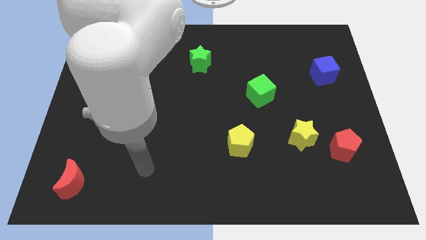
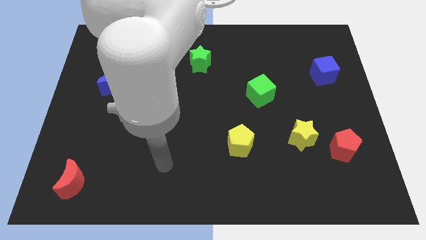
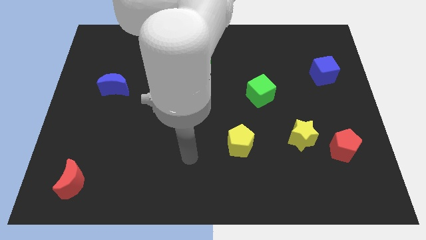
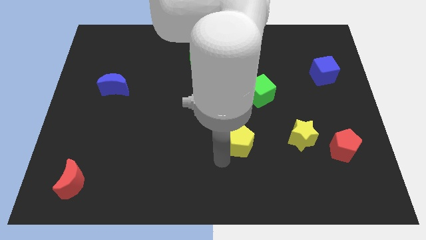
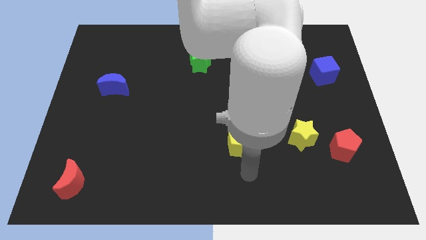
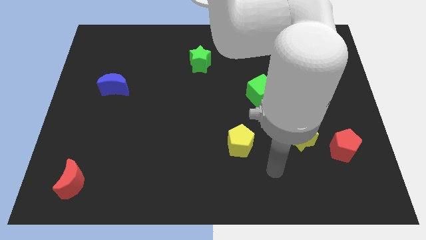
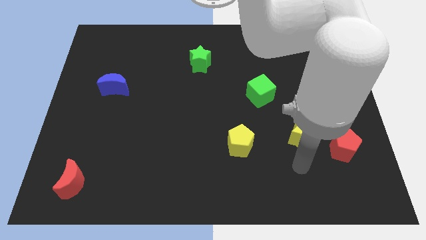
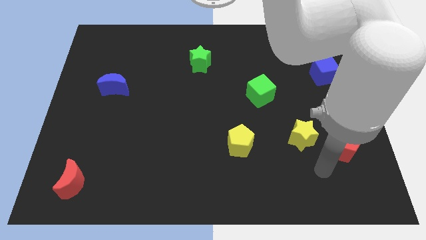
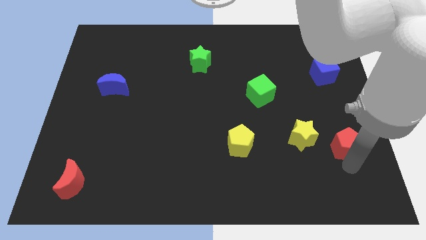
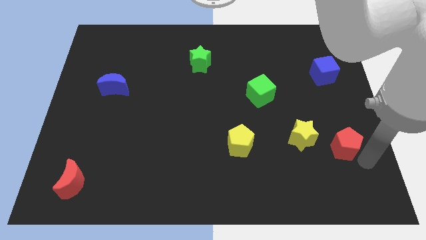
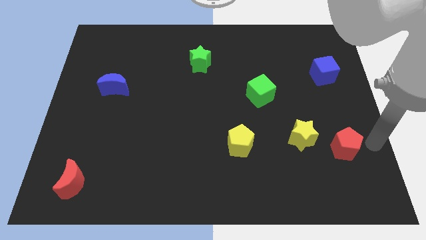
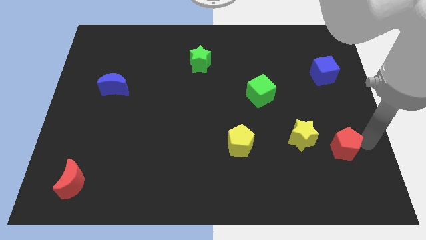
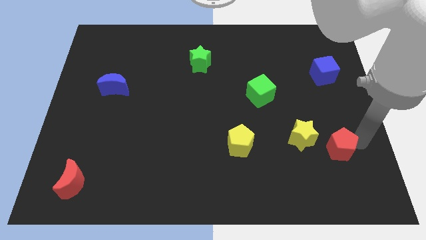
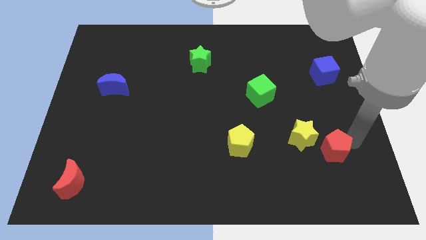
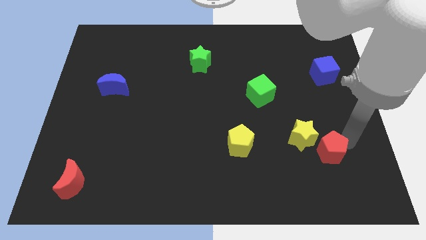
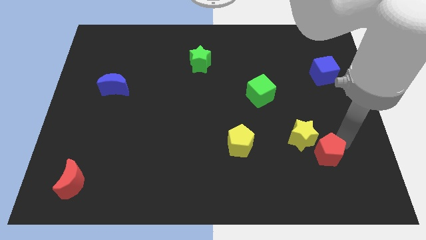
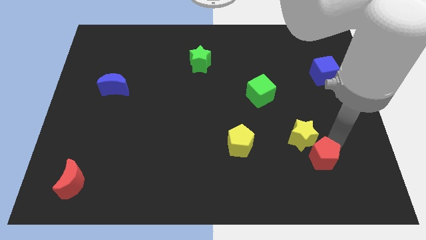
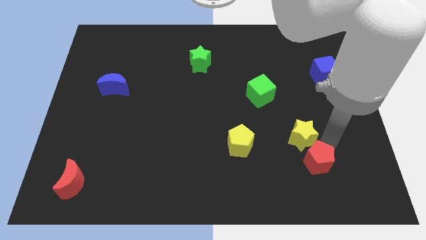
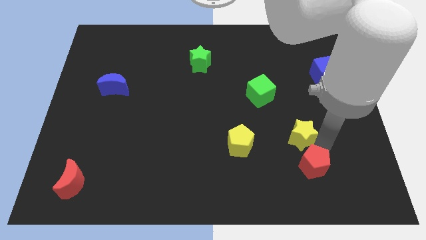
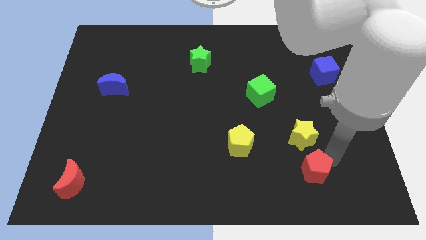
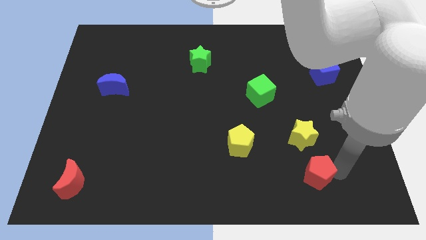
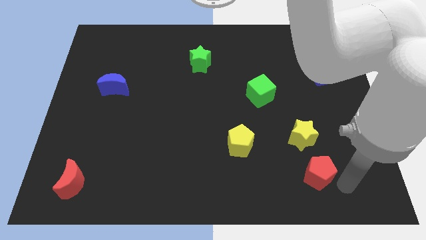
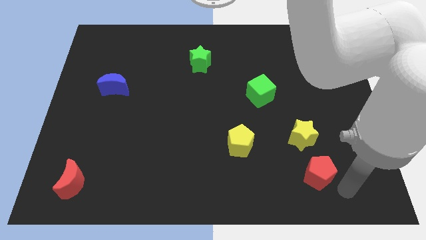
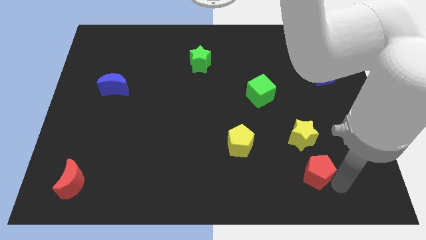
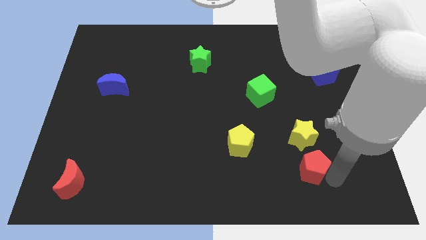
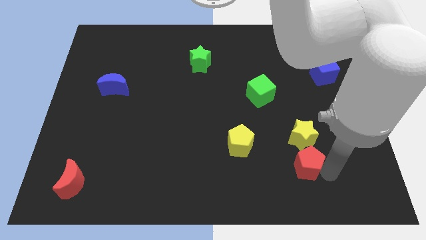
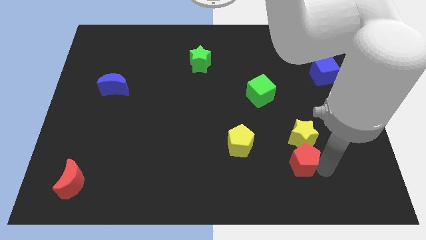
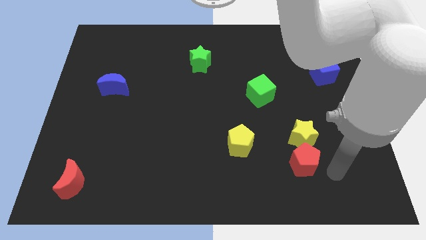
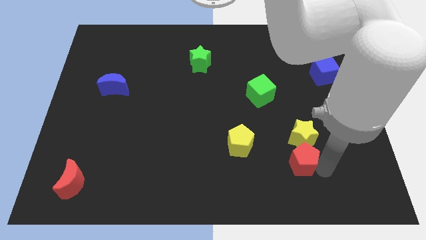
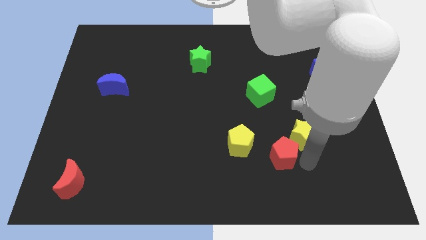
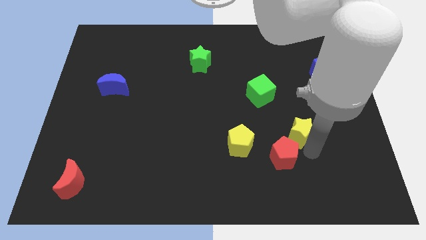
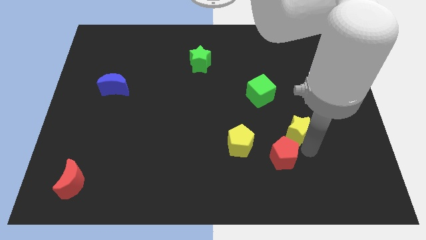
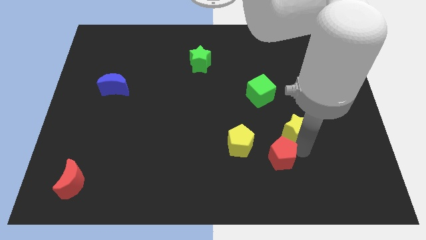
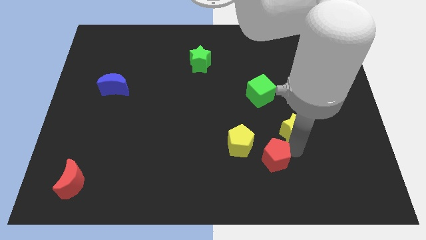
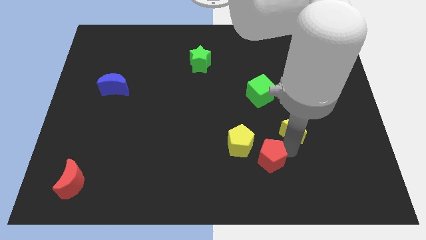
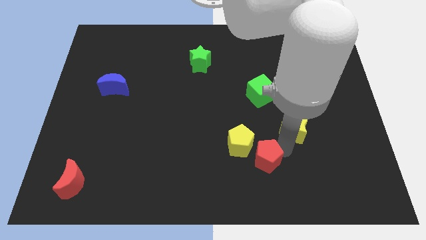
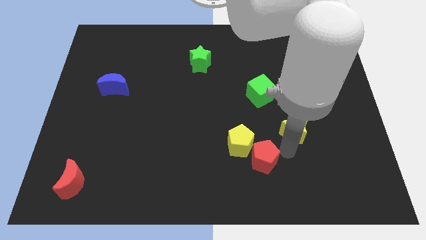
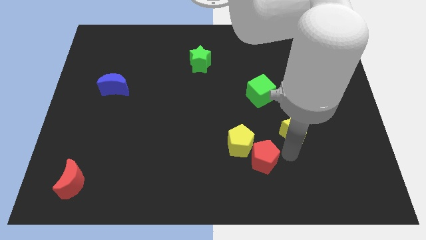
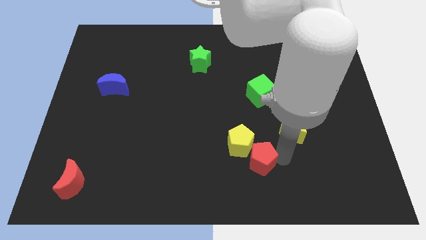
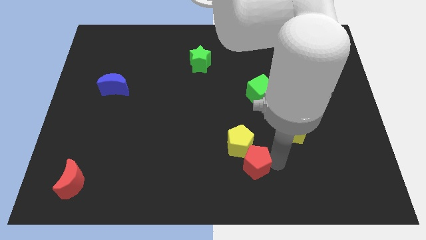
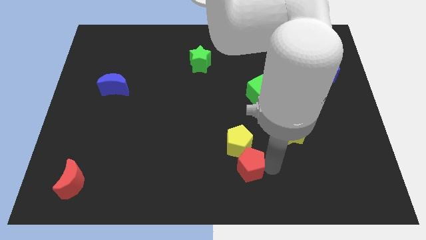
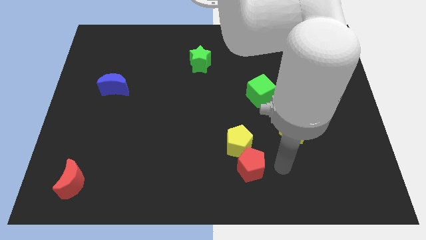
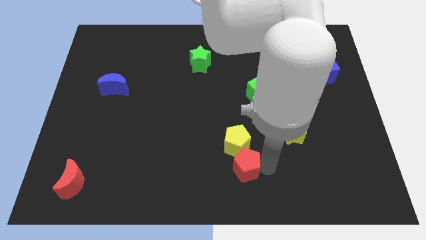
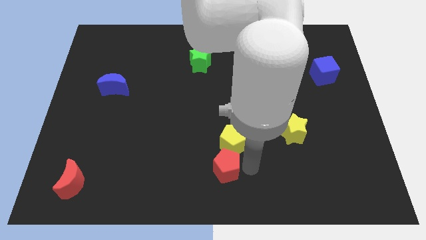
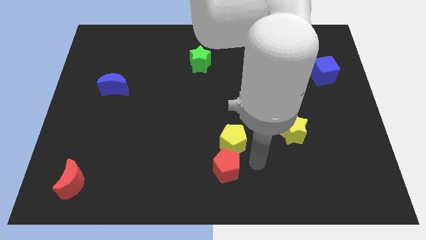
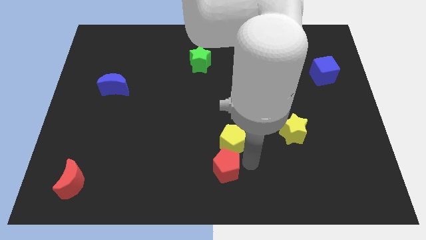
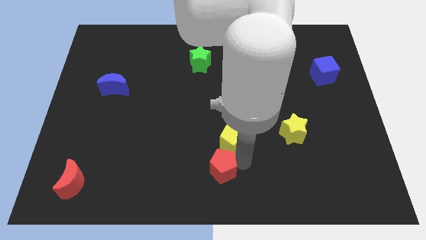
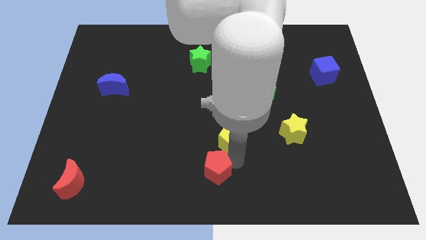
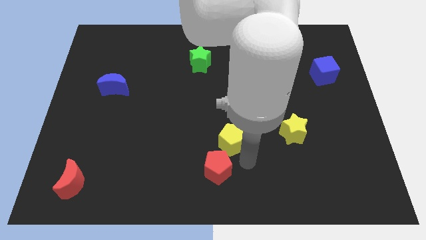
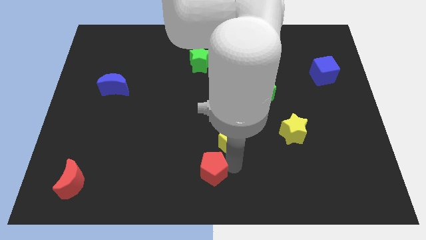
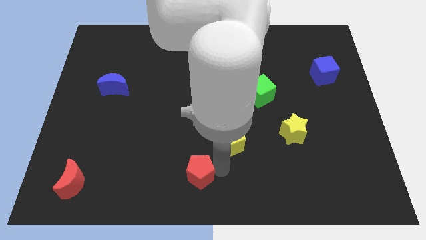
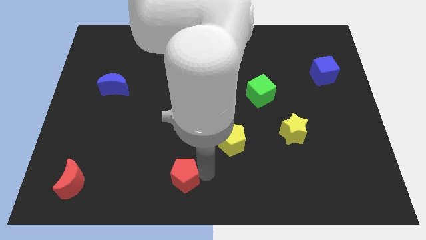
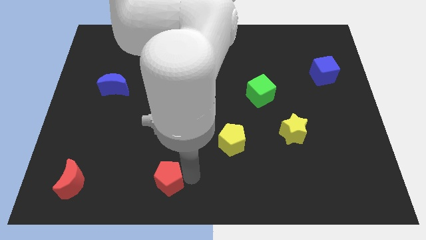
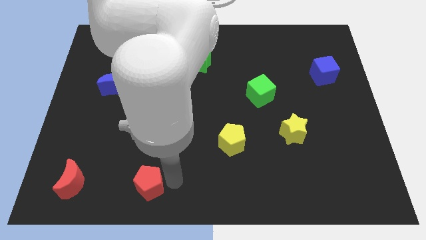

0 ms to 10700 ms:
slide the red pentagon just right of the red moon

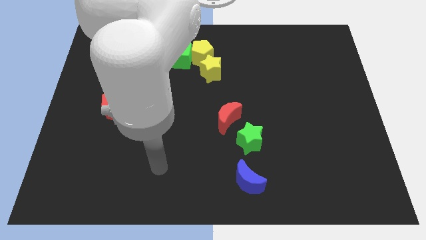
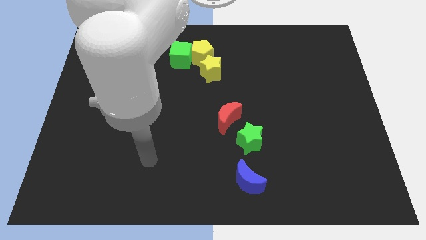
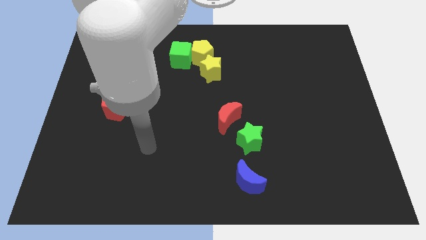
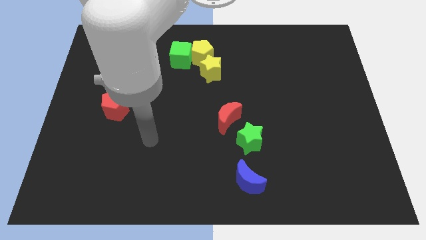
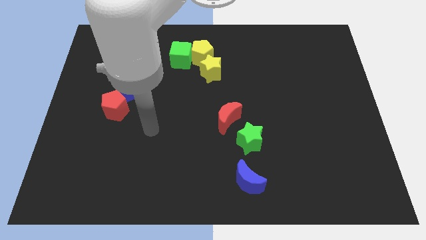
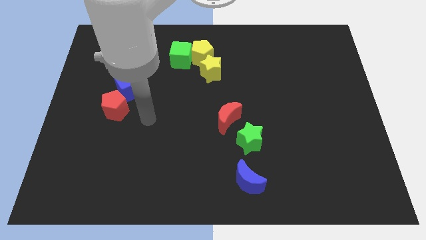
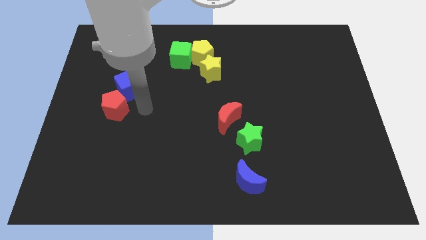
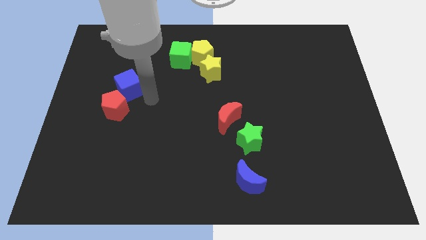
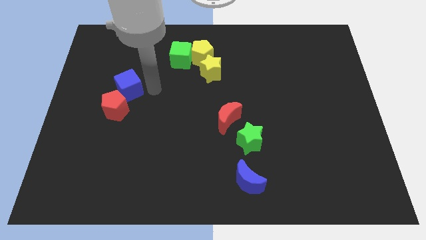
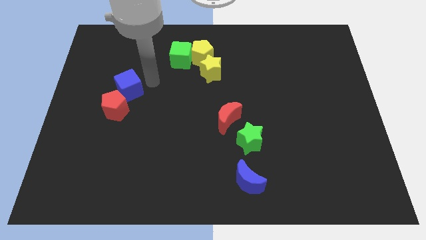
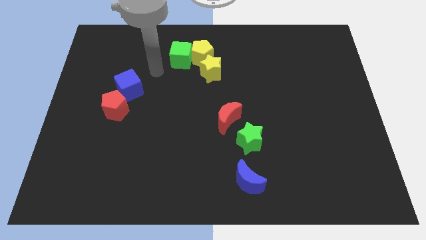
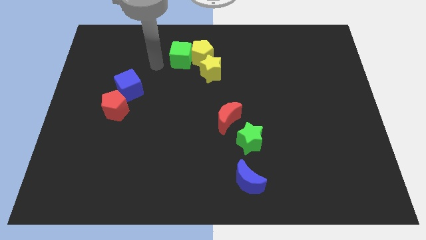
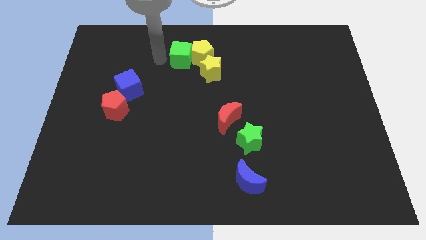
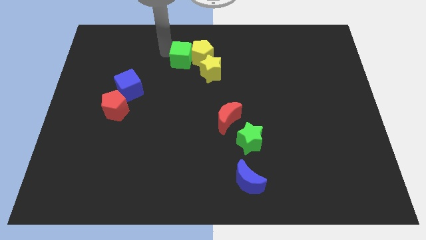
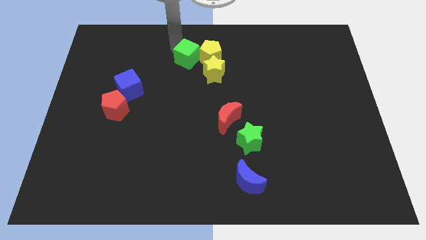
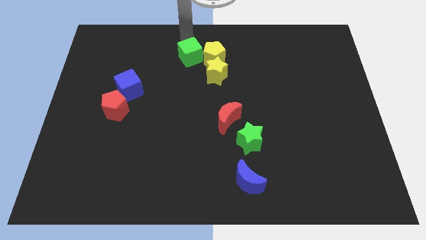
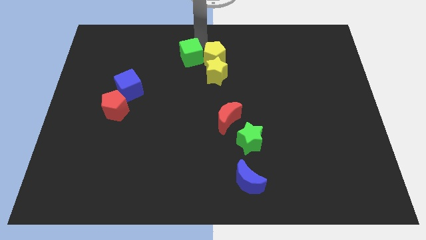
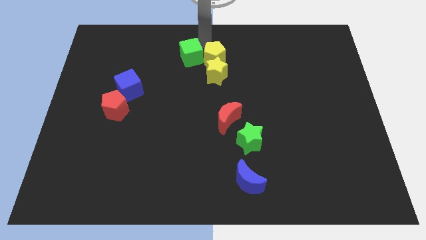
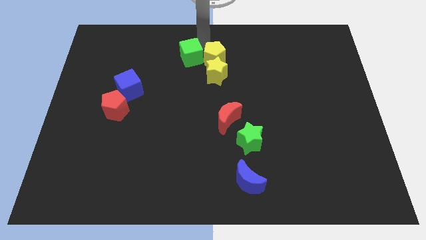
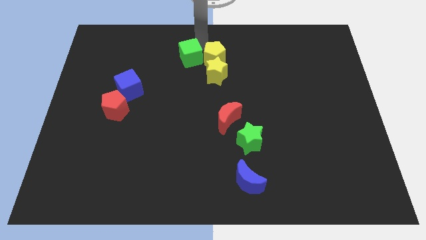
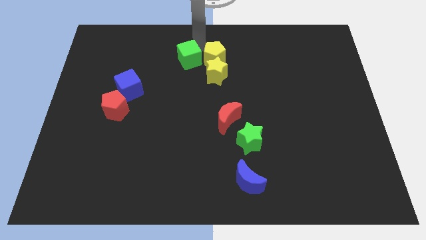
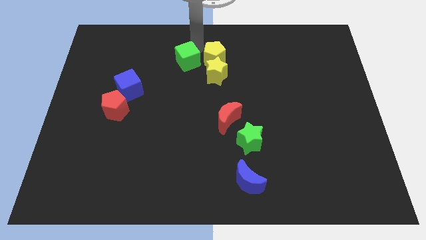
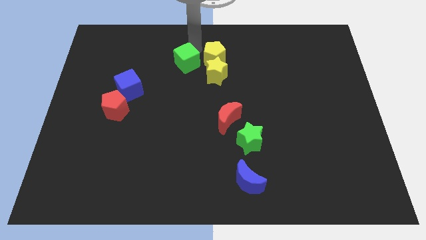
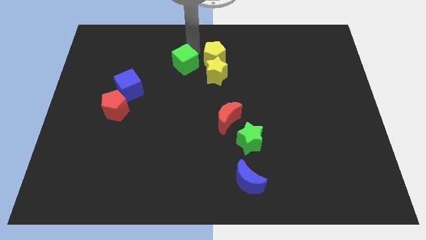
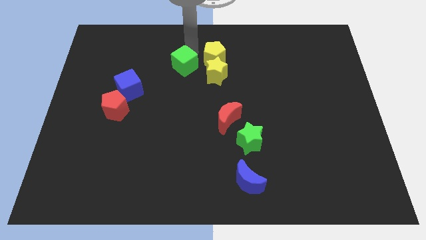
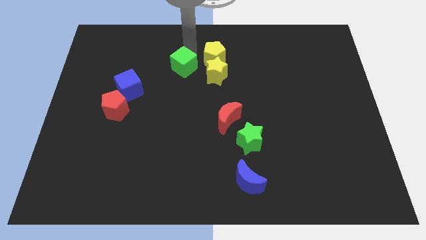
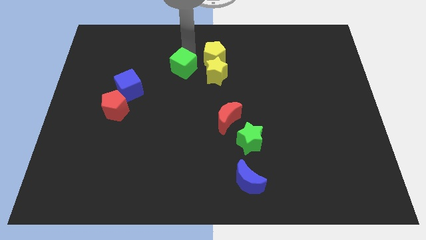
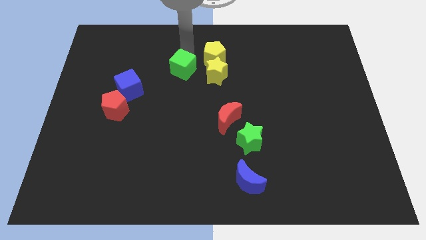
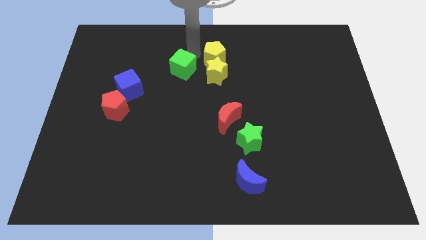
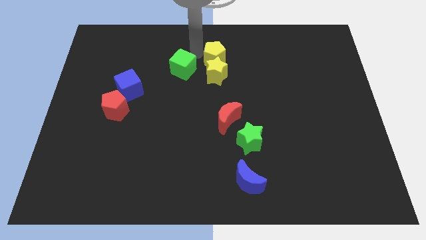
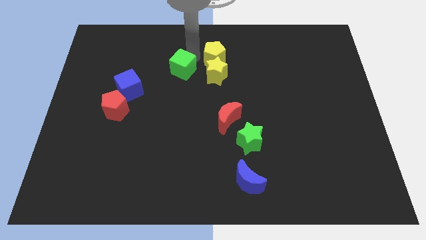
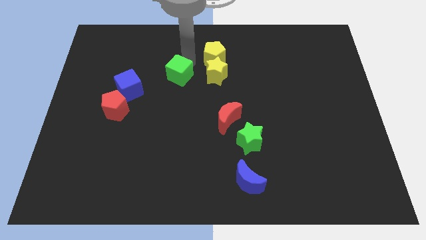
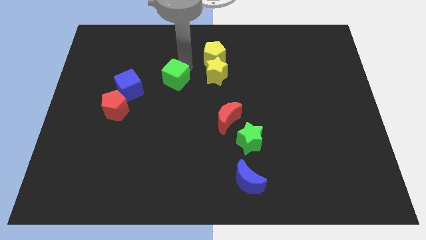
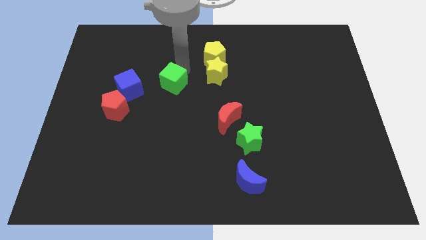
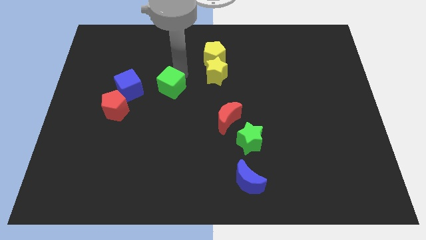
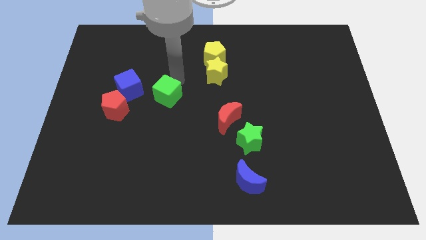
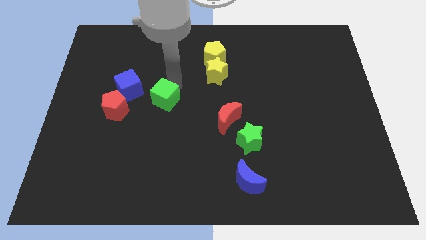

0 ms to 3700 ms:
slide the green cube diagonally down and to the right of the blue cube
